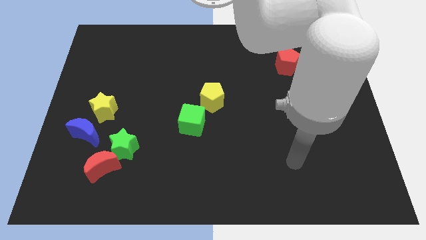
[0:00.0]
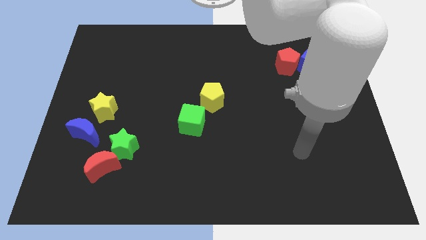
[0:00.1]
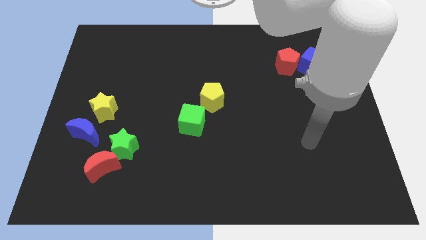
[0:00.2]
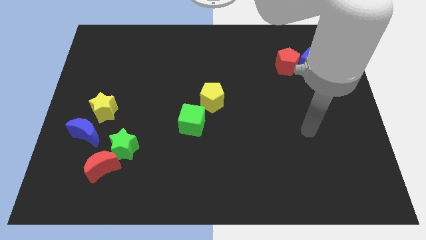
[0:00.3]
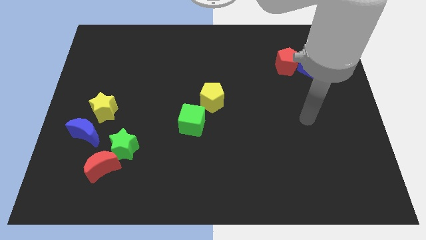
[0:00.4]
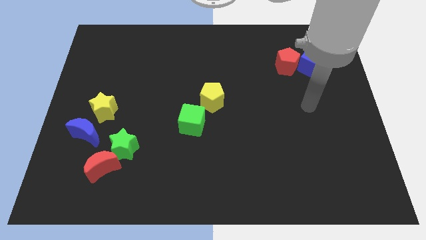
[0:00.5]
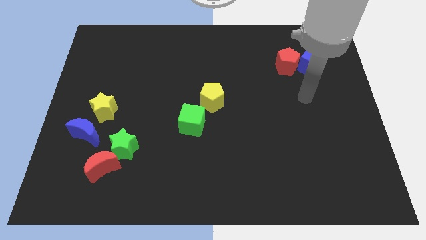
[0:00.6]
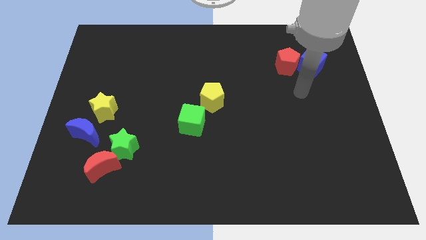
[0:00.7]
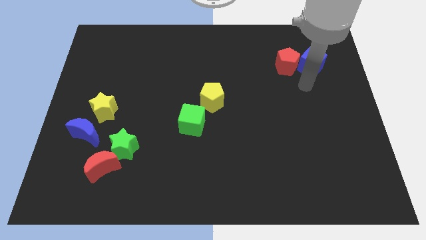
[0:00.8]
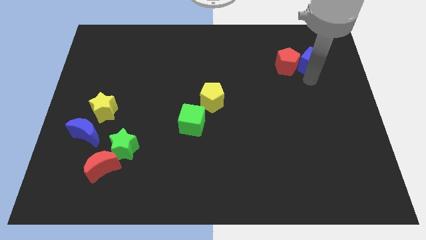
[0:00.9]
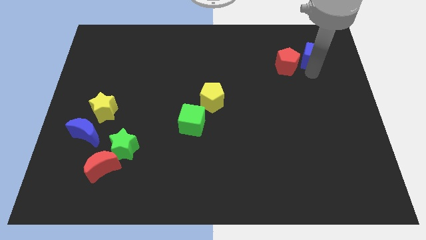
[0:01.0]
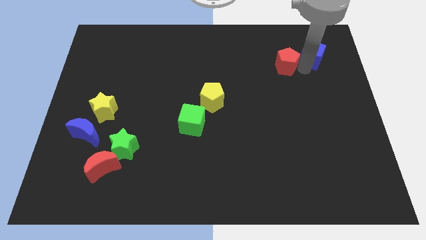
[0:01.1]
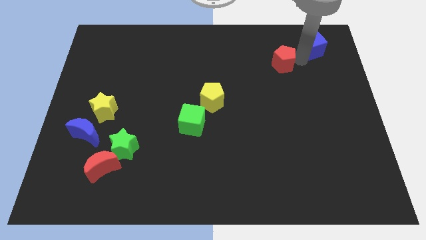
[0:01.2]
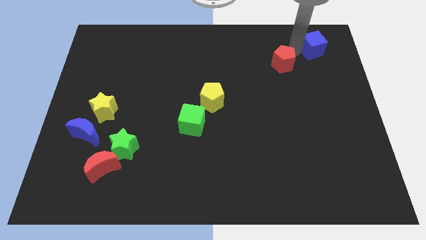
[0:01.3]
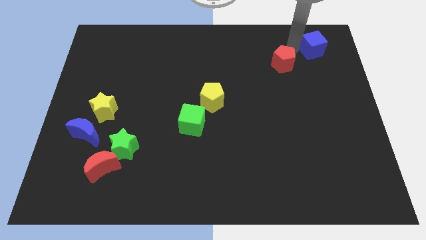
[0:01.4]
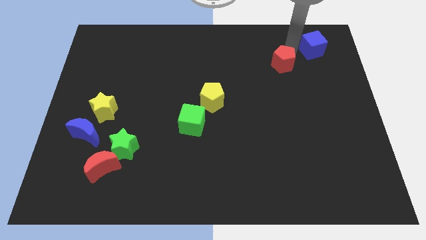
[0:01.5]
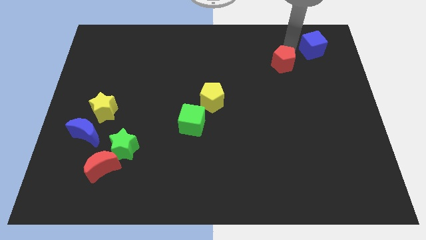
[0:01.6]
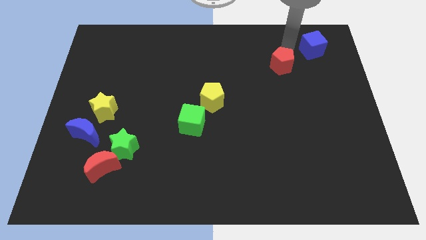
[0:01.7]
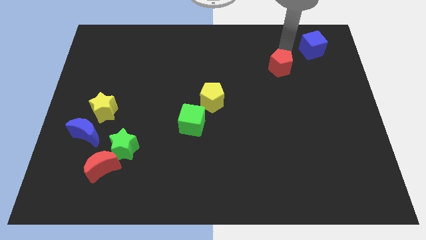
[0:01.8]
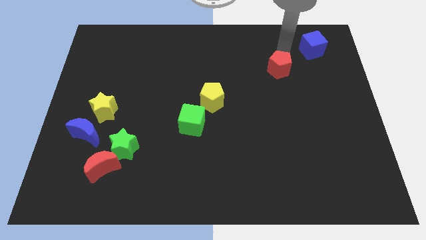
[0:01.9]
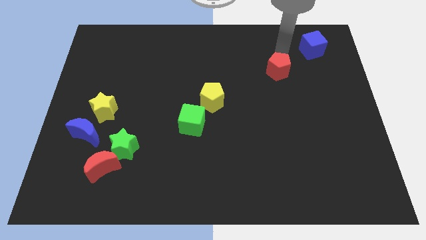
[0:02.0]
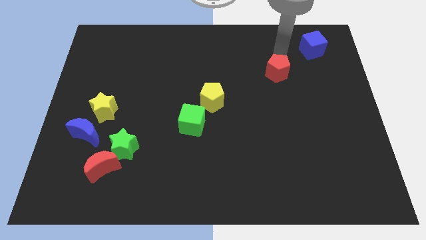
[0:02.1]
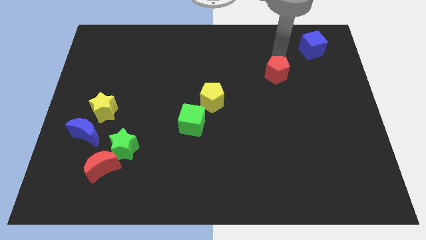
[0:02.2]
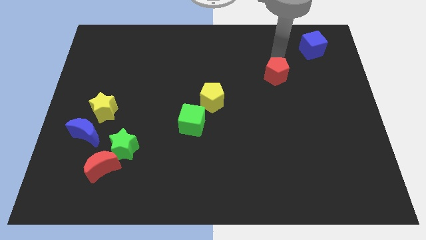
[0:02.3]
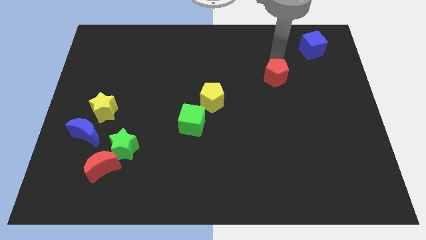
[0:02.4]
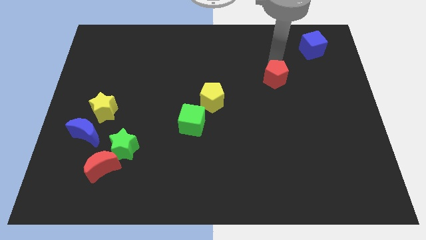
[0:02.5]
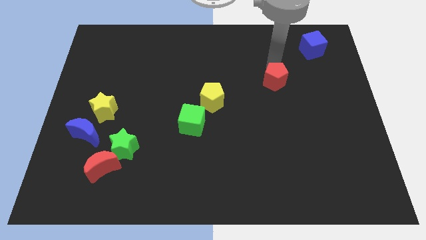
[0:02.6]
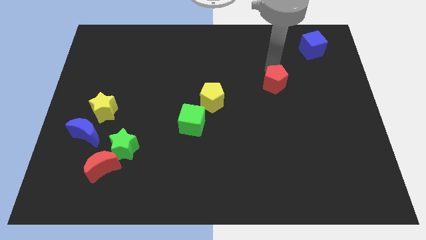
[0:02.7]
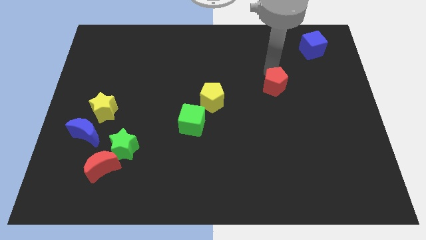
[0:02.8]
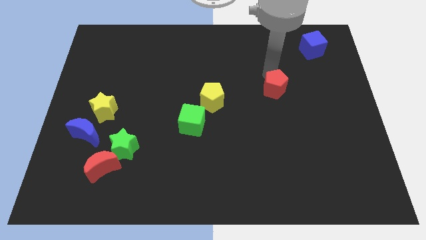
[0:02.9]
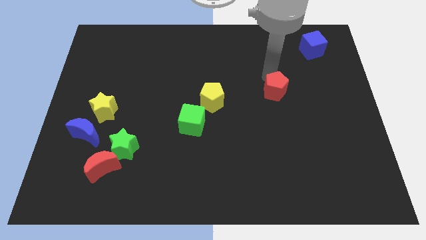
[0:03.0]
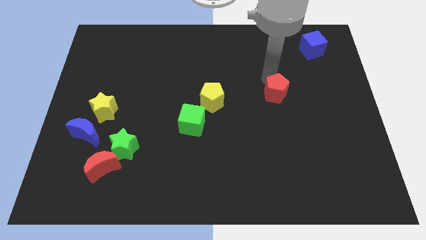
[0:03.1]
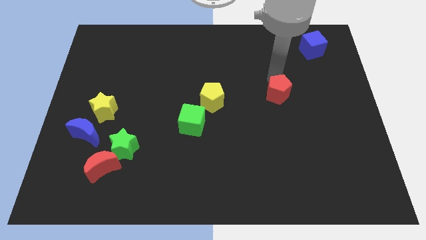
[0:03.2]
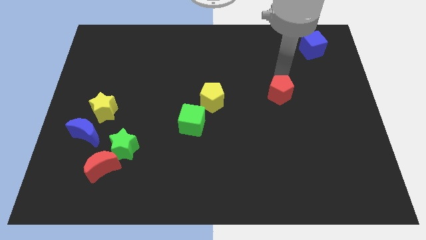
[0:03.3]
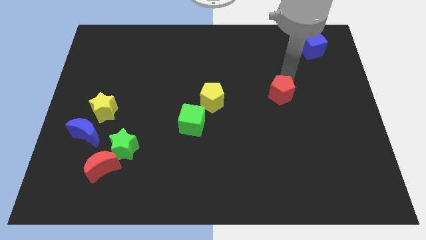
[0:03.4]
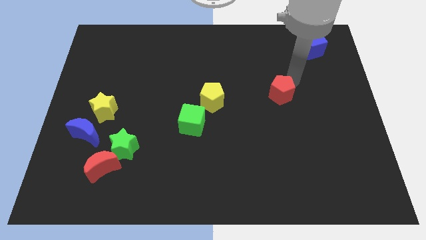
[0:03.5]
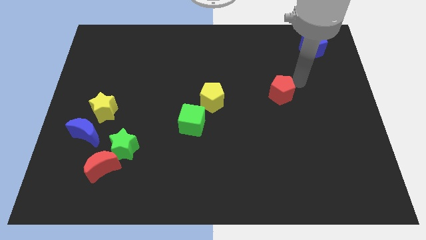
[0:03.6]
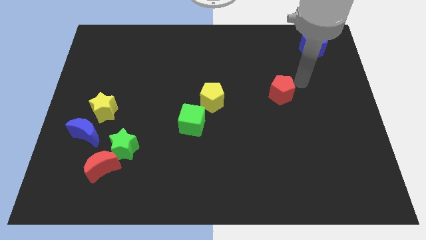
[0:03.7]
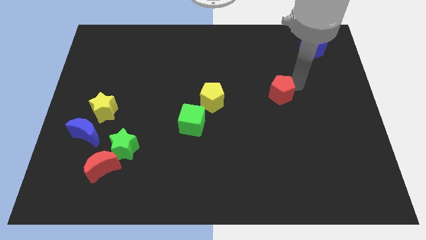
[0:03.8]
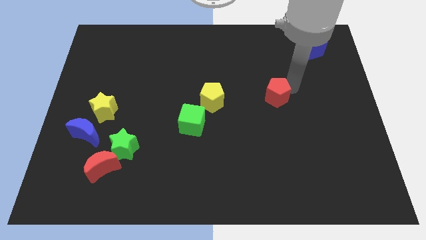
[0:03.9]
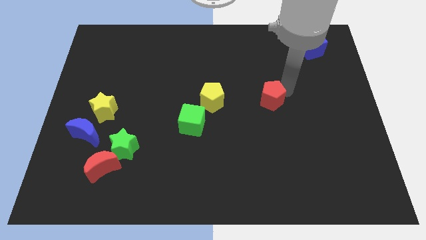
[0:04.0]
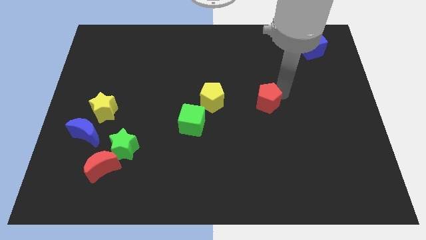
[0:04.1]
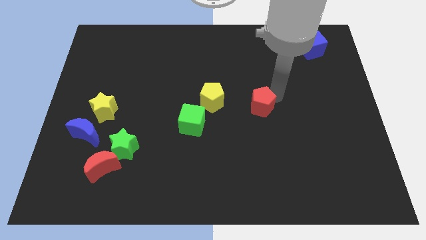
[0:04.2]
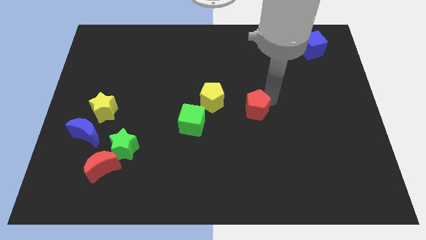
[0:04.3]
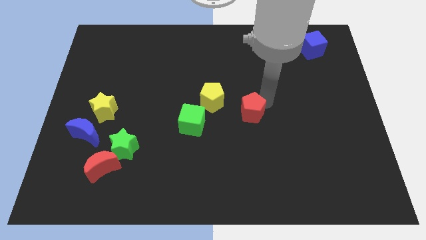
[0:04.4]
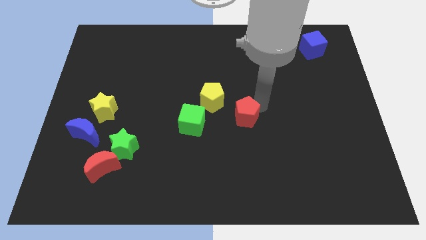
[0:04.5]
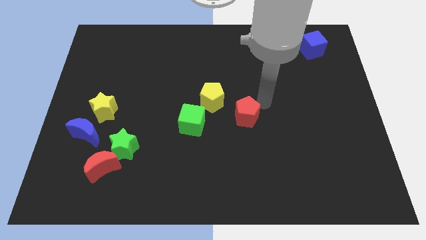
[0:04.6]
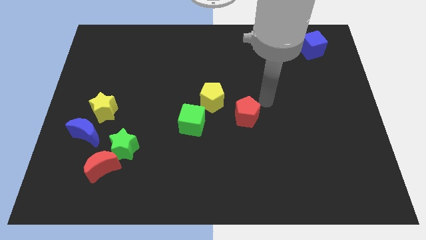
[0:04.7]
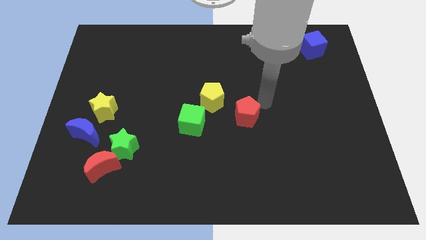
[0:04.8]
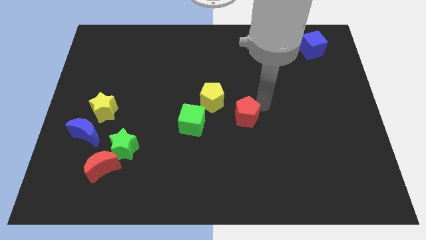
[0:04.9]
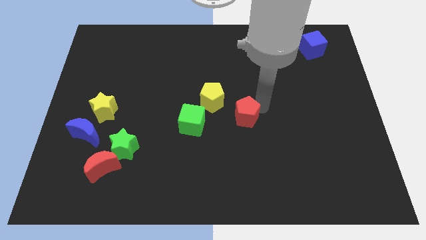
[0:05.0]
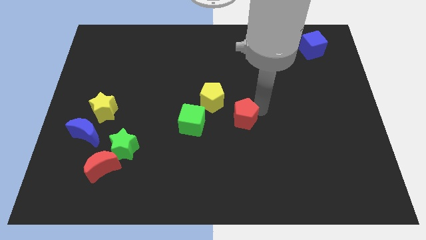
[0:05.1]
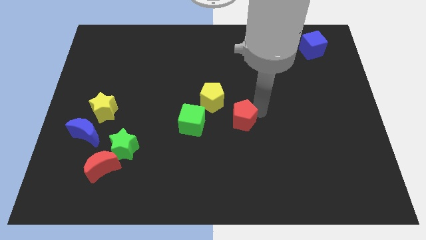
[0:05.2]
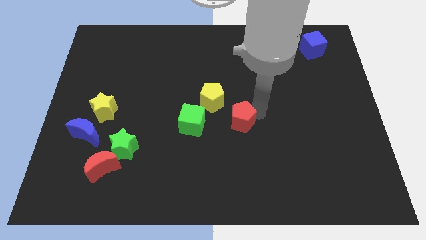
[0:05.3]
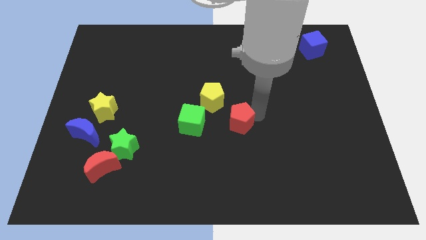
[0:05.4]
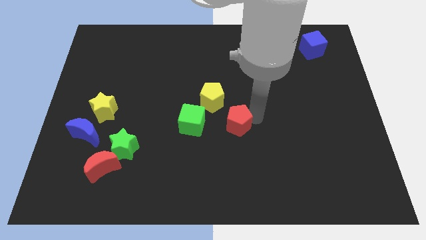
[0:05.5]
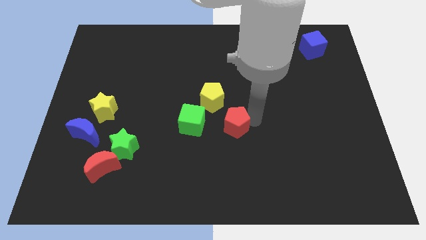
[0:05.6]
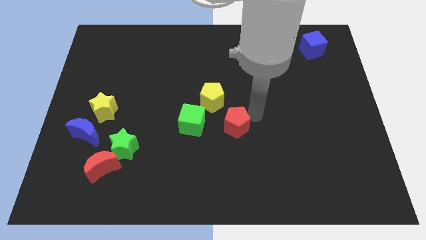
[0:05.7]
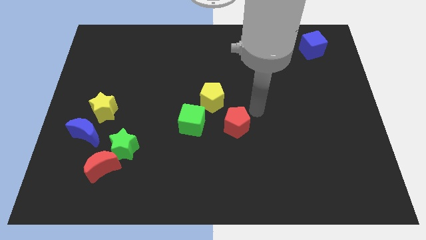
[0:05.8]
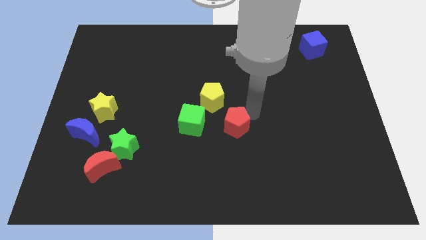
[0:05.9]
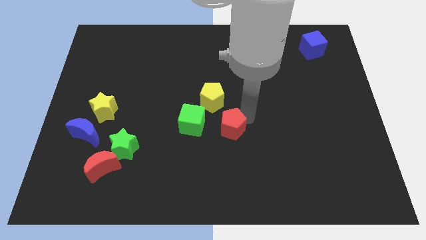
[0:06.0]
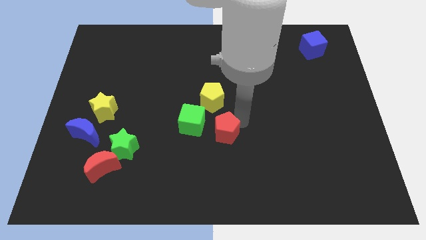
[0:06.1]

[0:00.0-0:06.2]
put the red pentagon to the bottom right of the green cube

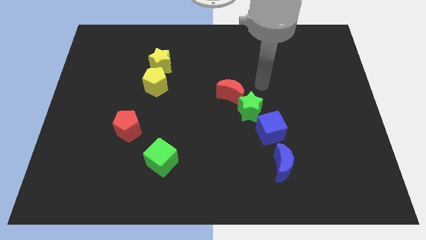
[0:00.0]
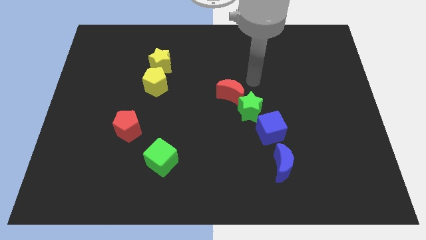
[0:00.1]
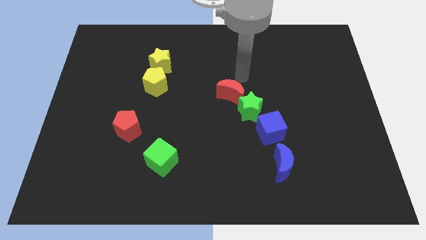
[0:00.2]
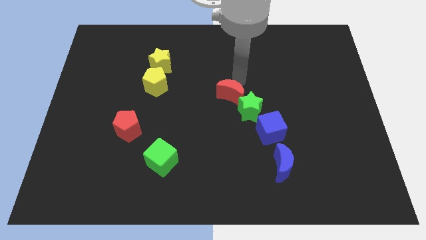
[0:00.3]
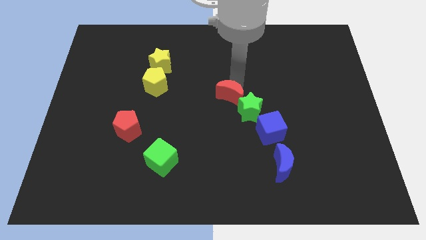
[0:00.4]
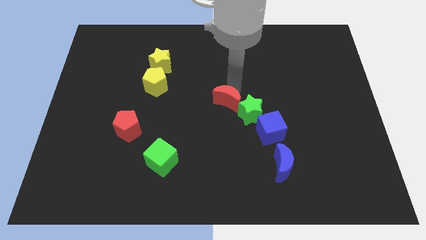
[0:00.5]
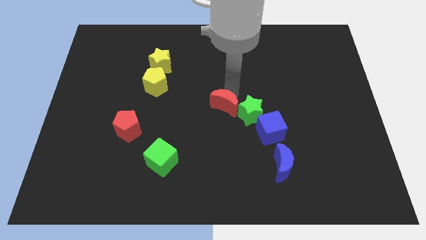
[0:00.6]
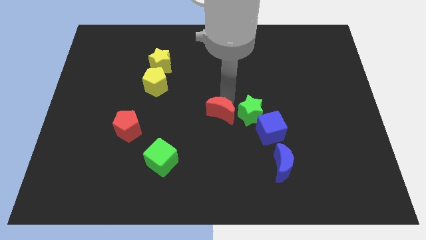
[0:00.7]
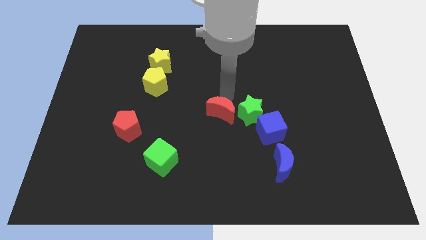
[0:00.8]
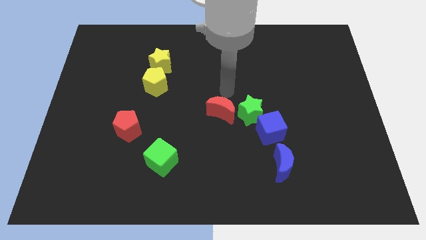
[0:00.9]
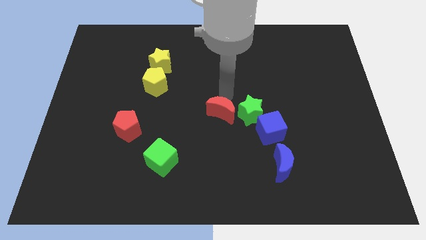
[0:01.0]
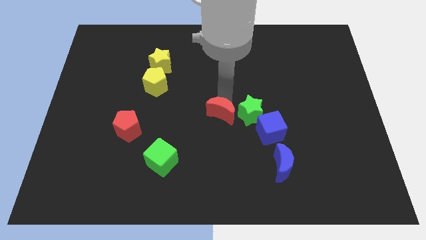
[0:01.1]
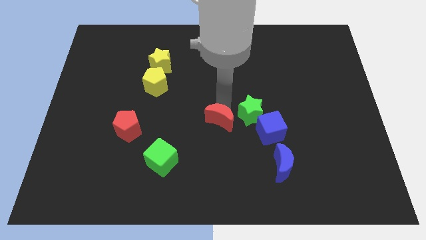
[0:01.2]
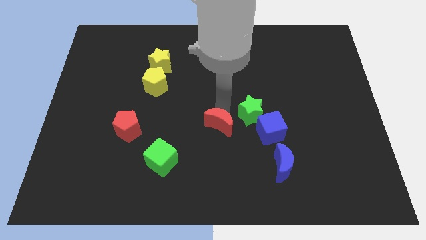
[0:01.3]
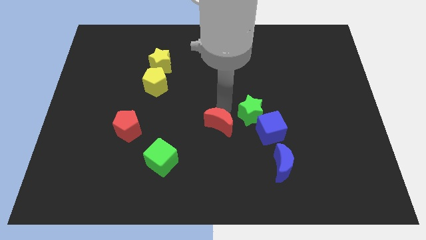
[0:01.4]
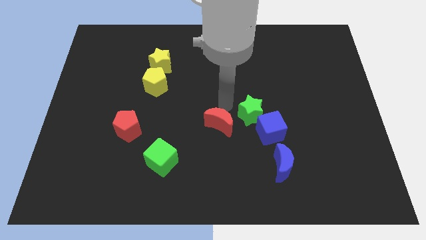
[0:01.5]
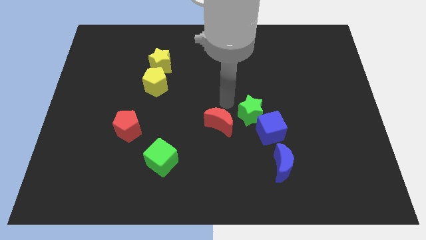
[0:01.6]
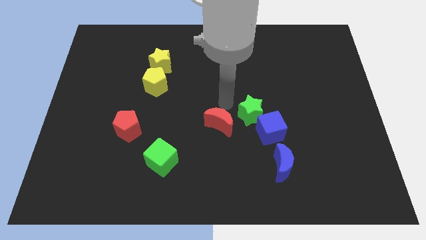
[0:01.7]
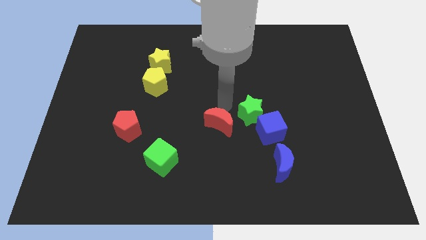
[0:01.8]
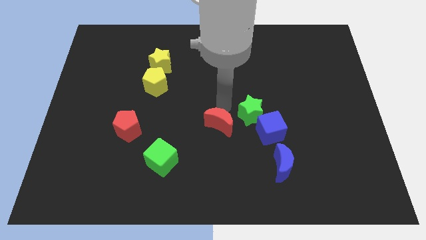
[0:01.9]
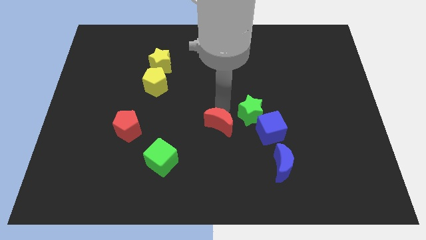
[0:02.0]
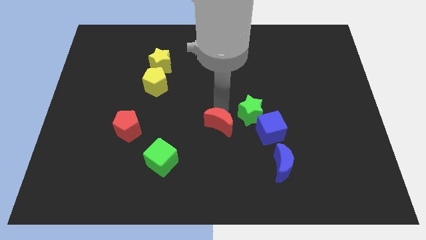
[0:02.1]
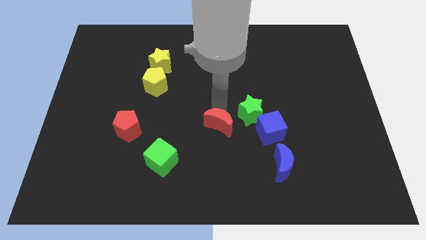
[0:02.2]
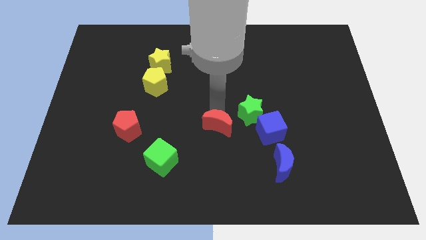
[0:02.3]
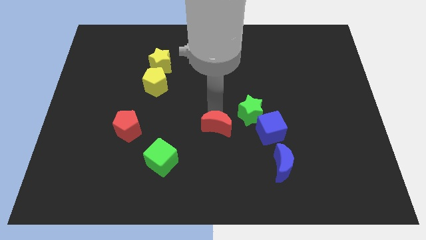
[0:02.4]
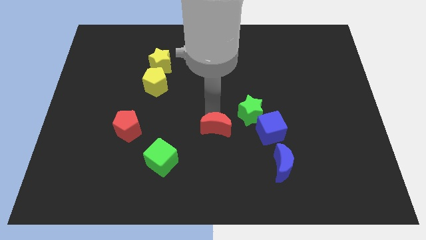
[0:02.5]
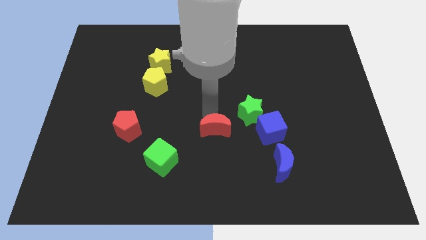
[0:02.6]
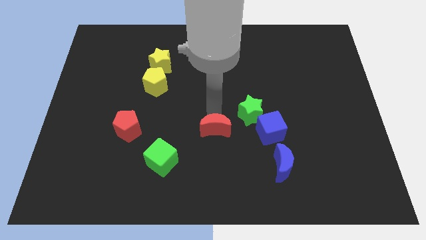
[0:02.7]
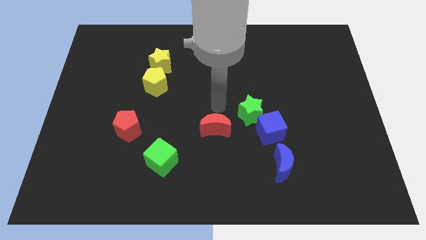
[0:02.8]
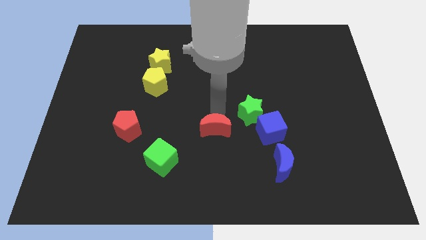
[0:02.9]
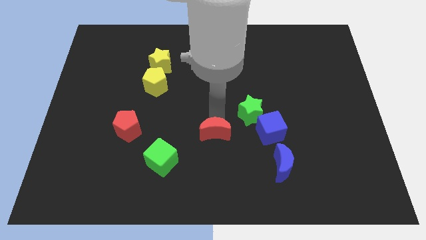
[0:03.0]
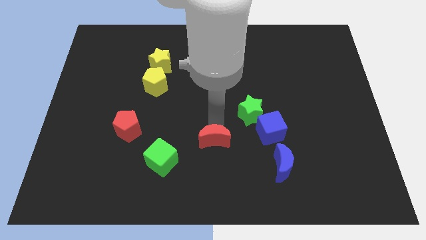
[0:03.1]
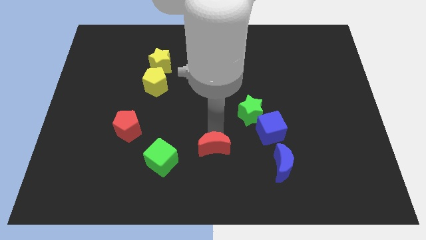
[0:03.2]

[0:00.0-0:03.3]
move the red moon to the right side of the green cube
